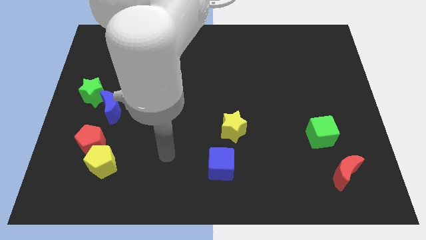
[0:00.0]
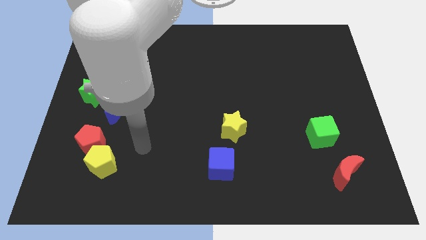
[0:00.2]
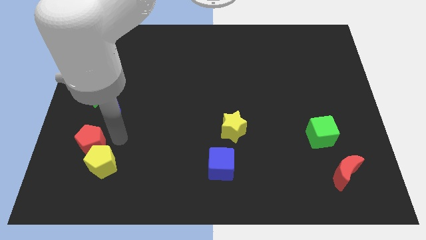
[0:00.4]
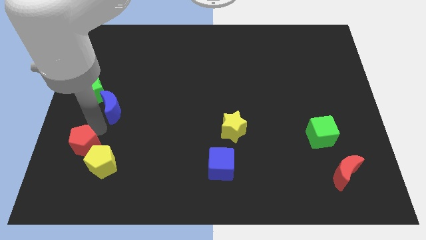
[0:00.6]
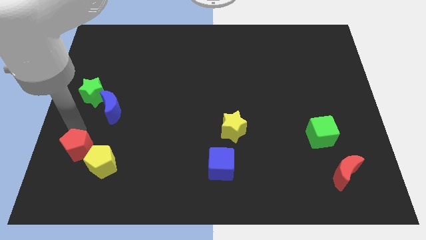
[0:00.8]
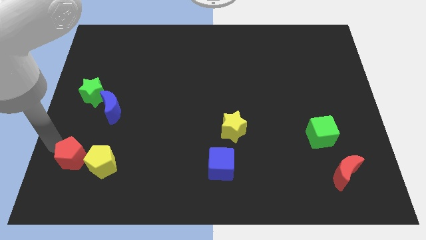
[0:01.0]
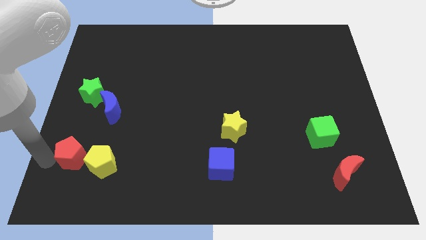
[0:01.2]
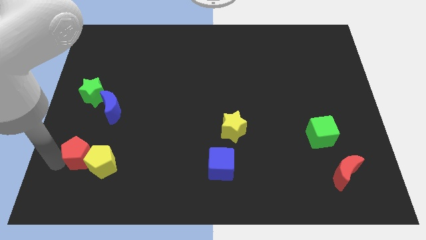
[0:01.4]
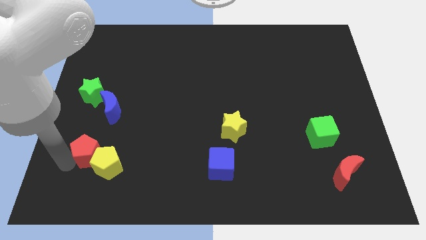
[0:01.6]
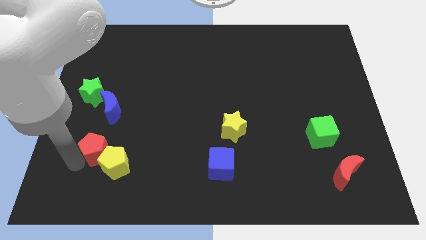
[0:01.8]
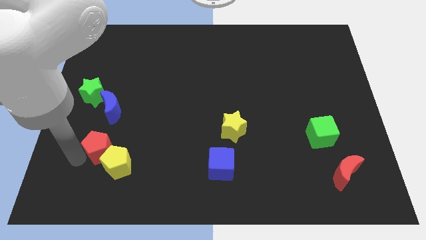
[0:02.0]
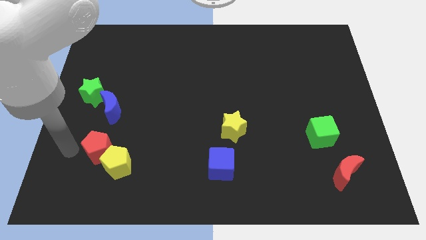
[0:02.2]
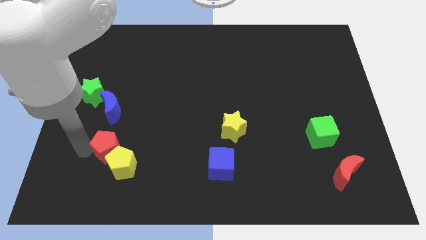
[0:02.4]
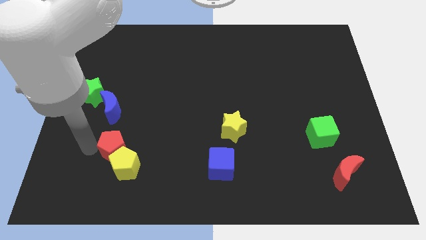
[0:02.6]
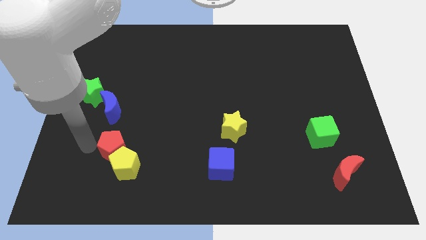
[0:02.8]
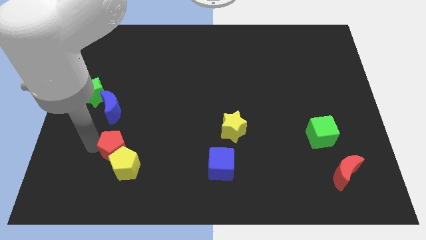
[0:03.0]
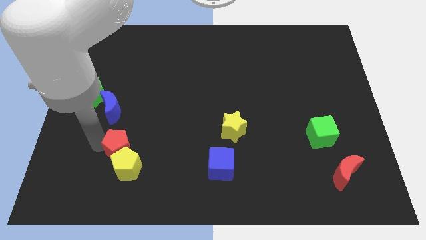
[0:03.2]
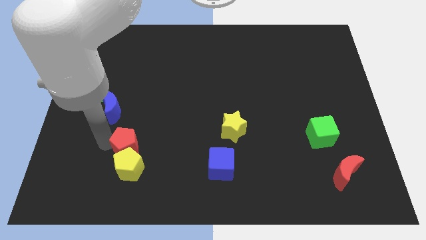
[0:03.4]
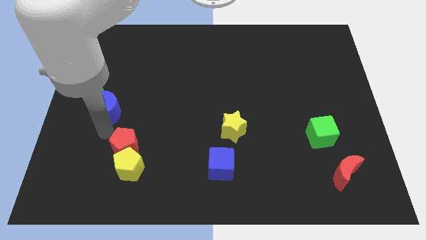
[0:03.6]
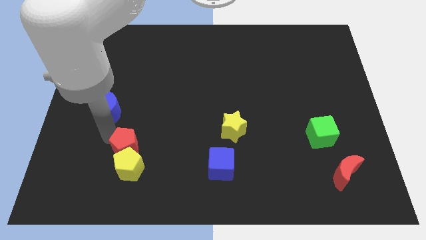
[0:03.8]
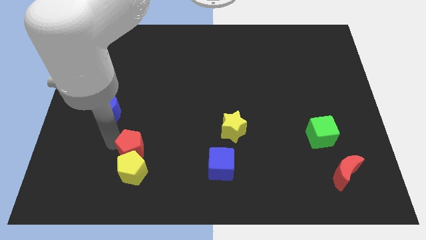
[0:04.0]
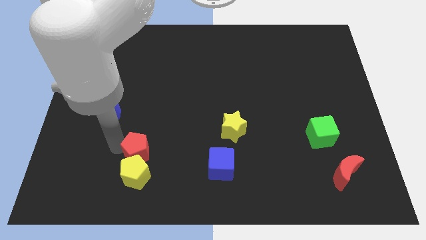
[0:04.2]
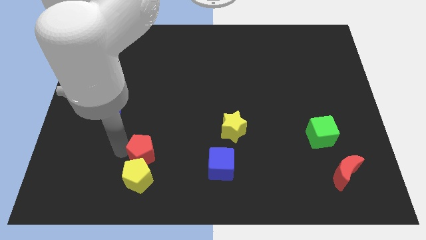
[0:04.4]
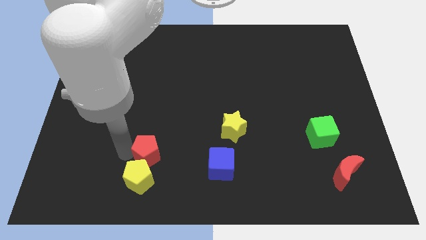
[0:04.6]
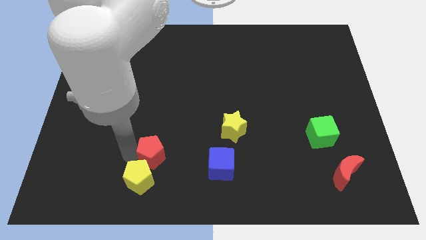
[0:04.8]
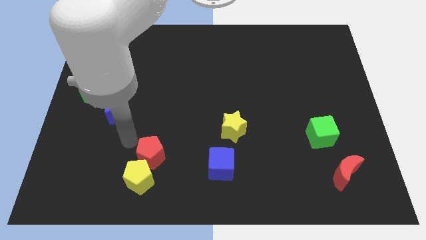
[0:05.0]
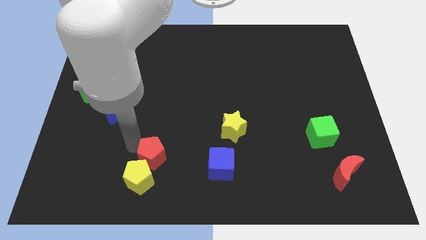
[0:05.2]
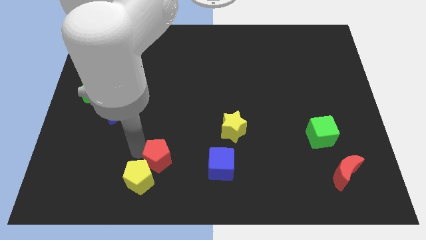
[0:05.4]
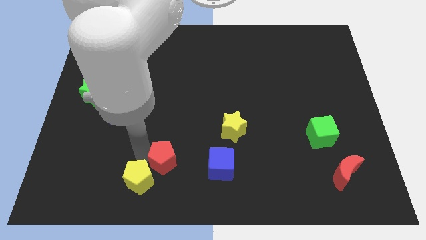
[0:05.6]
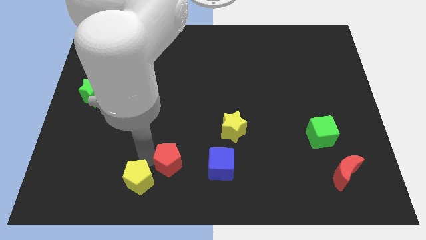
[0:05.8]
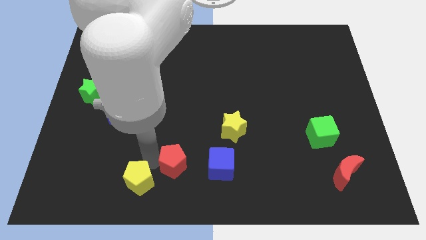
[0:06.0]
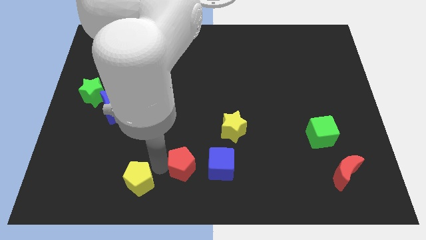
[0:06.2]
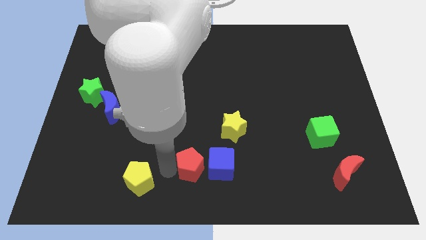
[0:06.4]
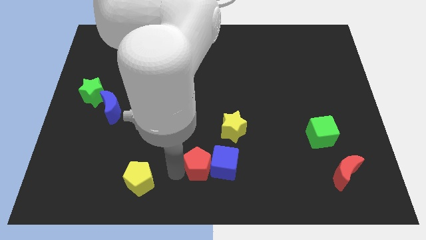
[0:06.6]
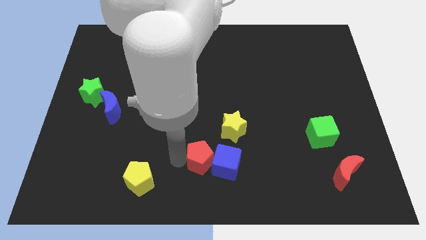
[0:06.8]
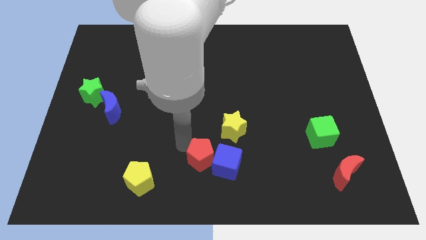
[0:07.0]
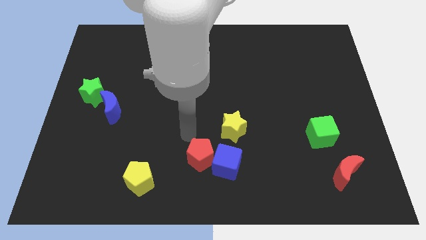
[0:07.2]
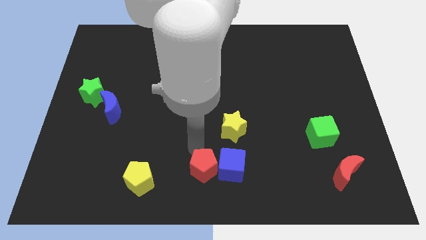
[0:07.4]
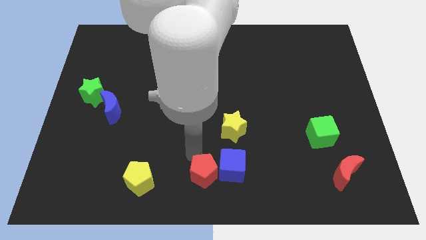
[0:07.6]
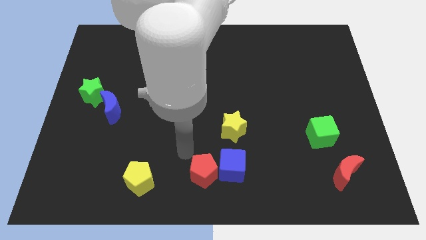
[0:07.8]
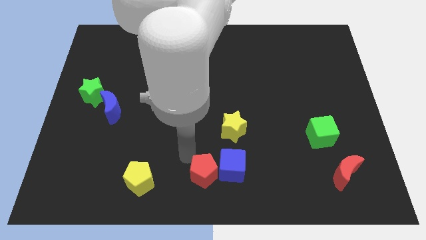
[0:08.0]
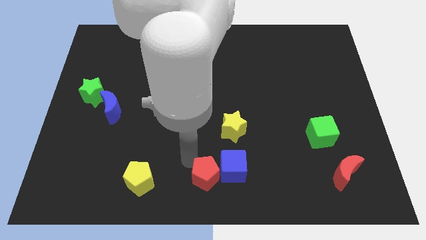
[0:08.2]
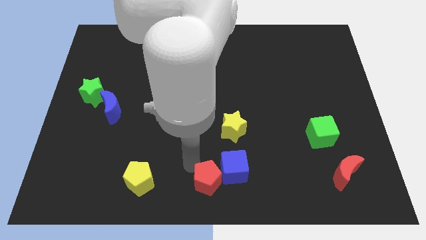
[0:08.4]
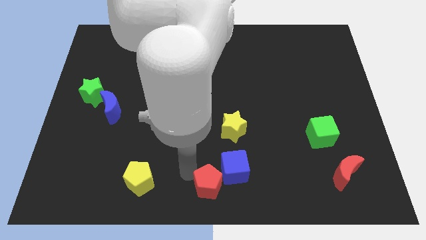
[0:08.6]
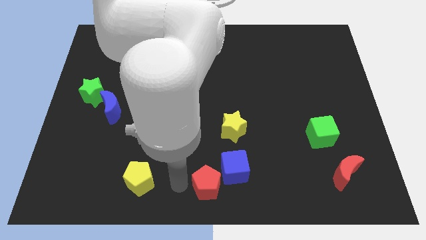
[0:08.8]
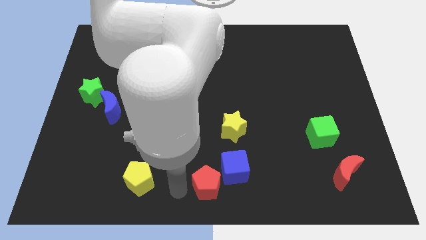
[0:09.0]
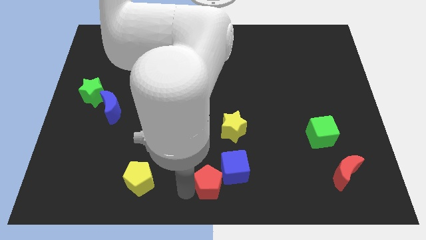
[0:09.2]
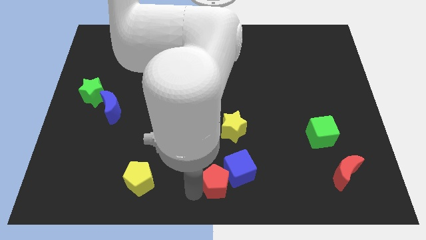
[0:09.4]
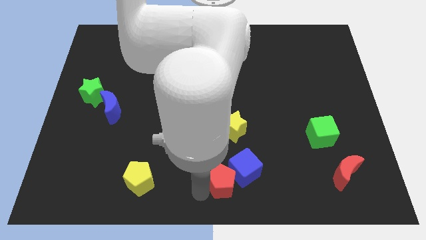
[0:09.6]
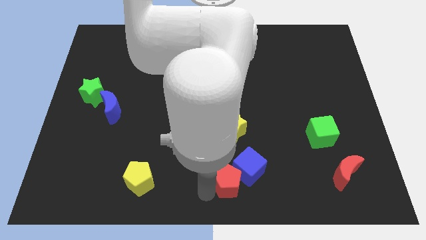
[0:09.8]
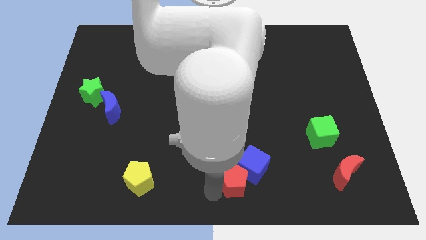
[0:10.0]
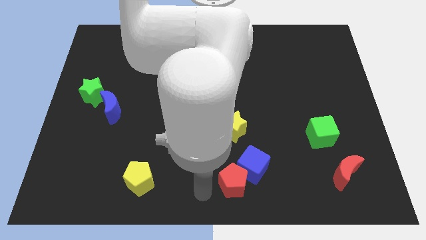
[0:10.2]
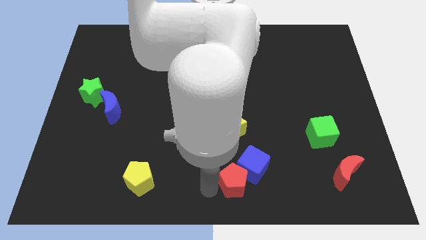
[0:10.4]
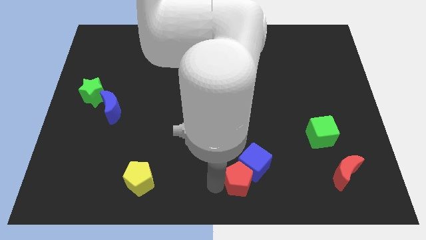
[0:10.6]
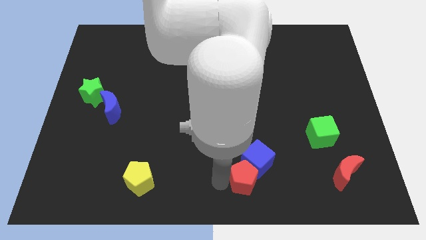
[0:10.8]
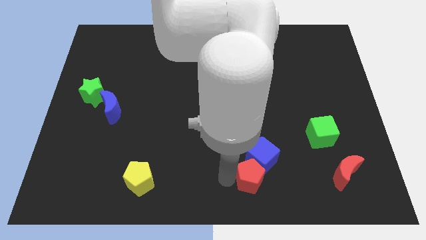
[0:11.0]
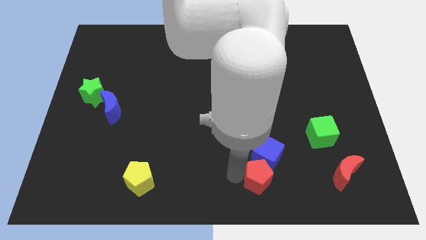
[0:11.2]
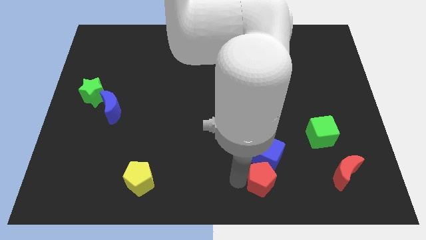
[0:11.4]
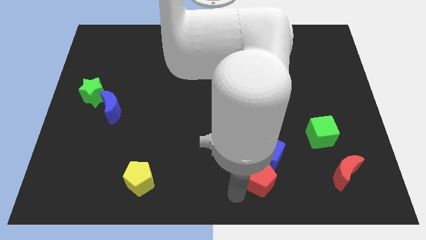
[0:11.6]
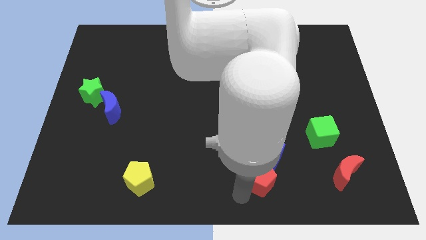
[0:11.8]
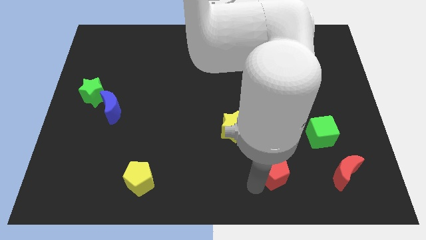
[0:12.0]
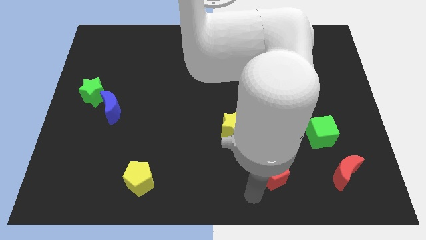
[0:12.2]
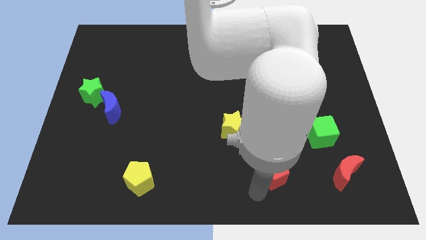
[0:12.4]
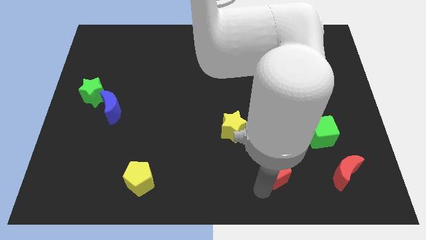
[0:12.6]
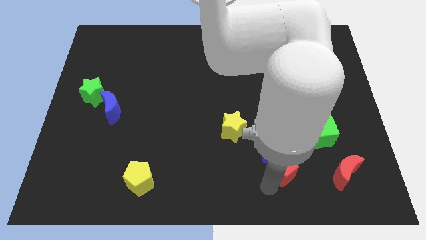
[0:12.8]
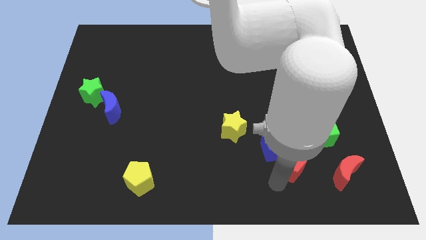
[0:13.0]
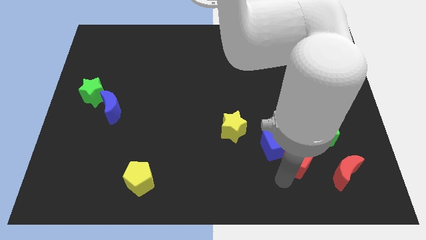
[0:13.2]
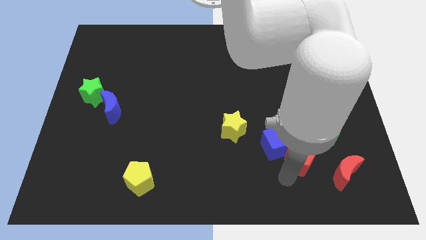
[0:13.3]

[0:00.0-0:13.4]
put the red pentagon diagonally up and to the left of the red moon
